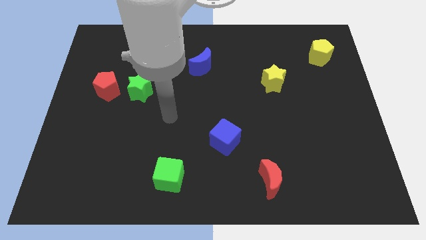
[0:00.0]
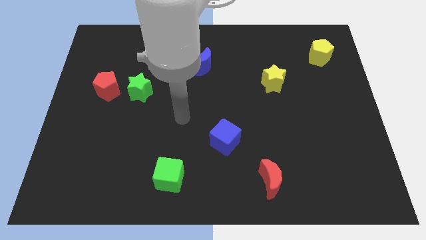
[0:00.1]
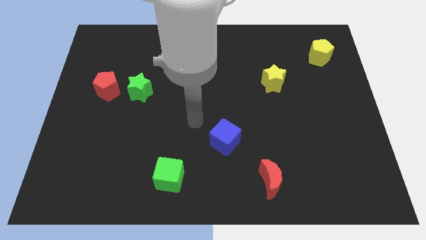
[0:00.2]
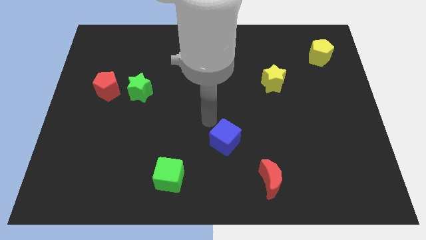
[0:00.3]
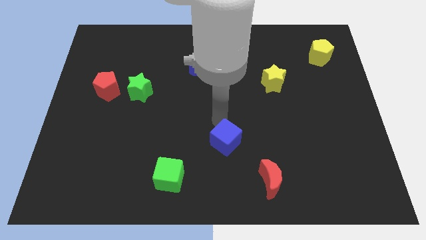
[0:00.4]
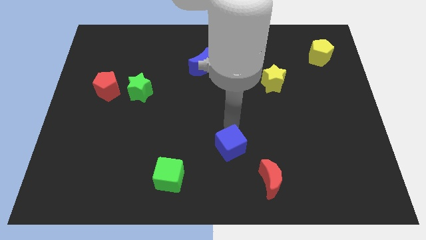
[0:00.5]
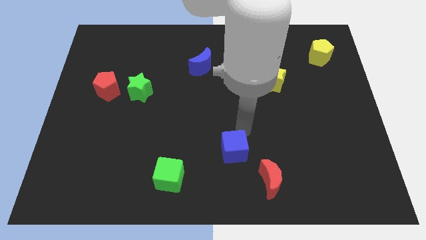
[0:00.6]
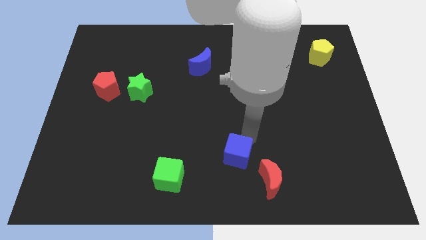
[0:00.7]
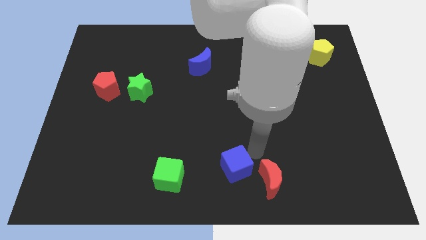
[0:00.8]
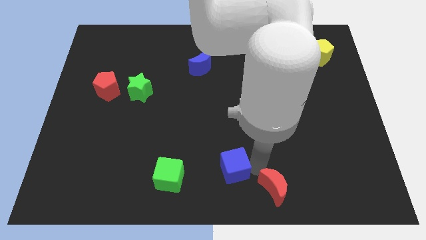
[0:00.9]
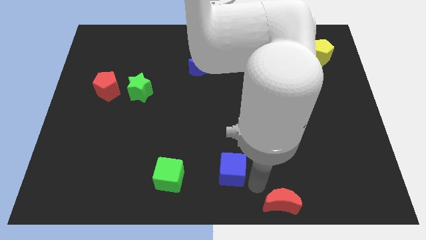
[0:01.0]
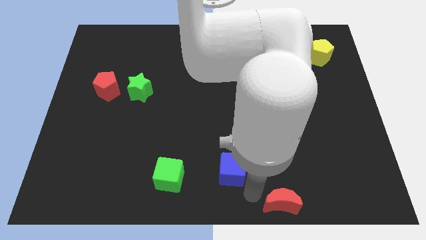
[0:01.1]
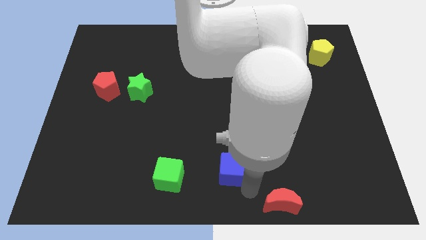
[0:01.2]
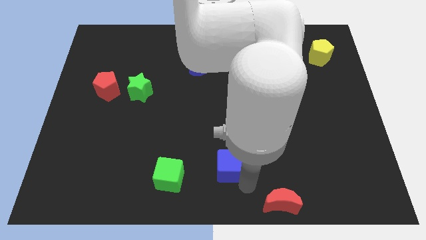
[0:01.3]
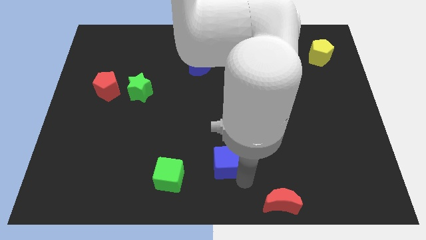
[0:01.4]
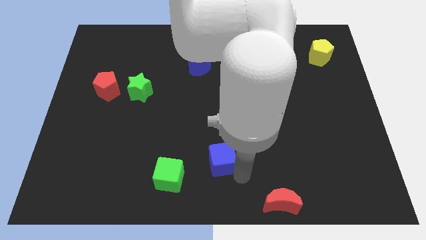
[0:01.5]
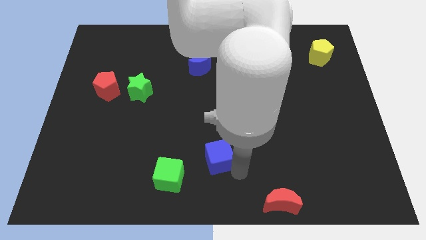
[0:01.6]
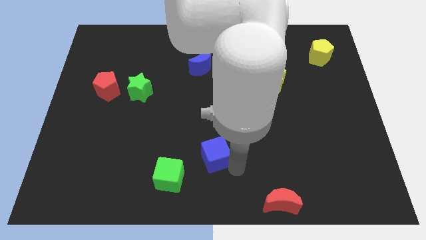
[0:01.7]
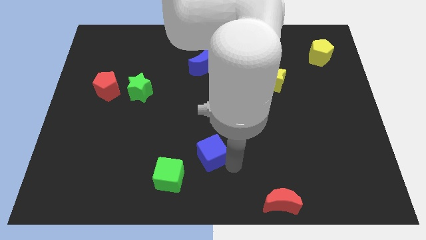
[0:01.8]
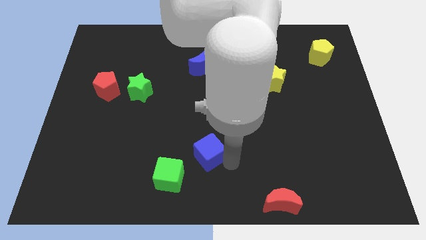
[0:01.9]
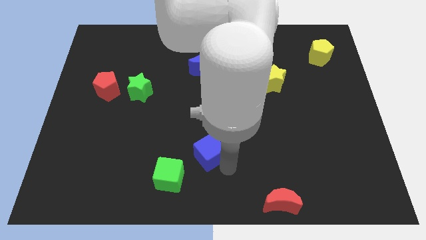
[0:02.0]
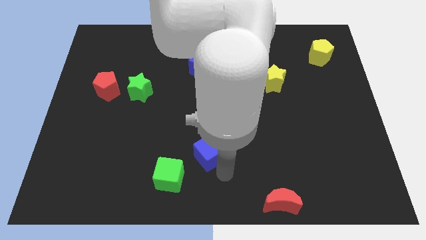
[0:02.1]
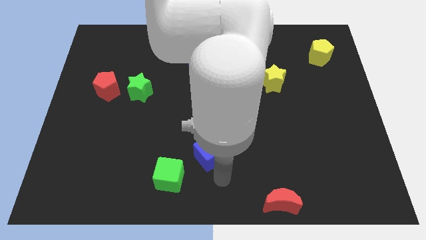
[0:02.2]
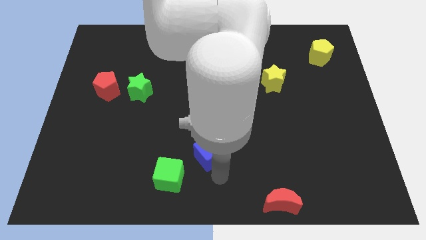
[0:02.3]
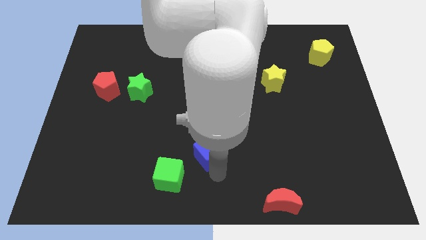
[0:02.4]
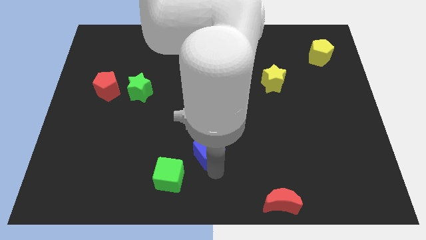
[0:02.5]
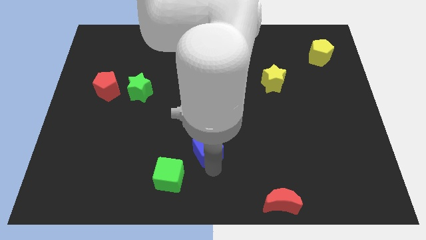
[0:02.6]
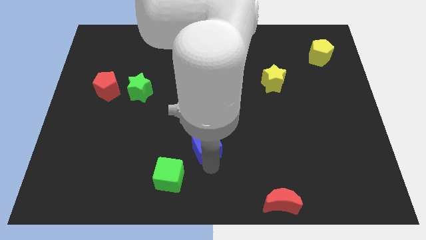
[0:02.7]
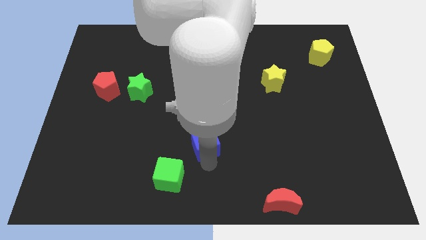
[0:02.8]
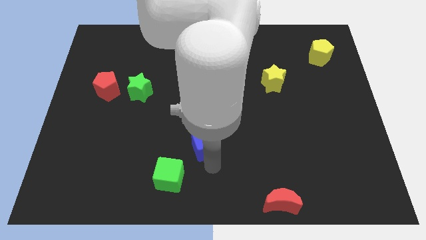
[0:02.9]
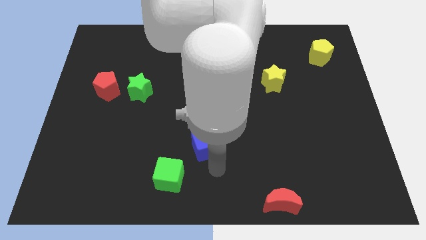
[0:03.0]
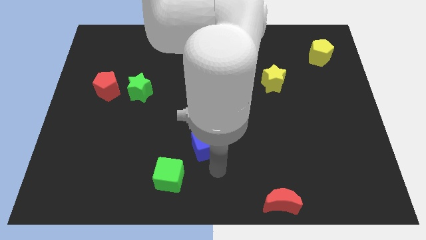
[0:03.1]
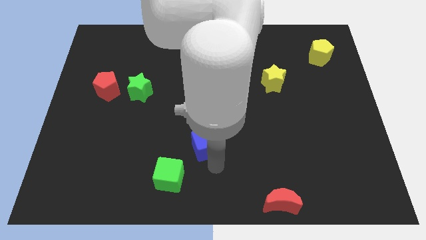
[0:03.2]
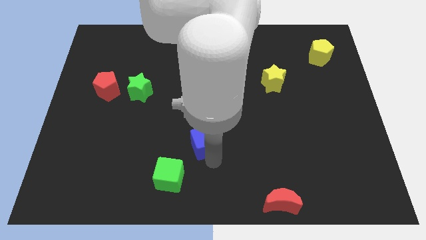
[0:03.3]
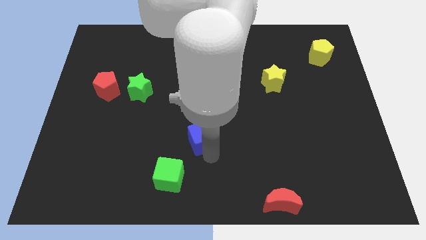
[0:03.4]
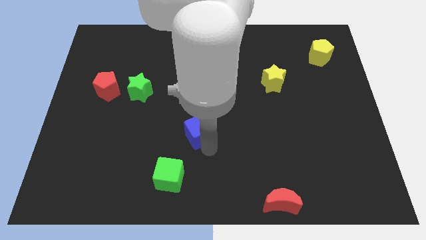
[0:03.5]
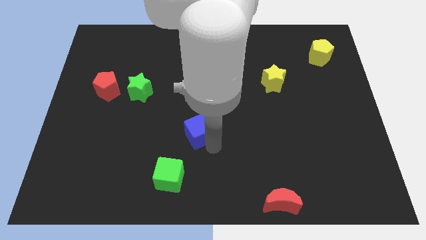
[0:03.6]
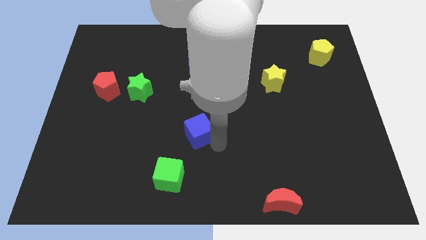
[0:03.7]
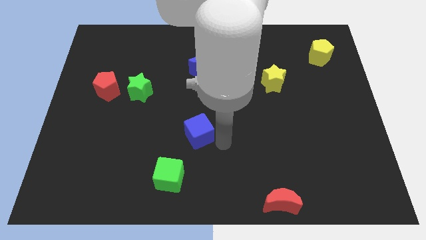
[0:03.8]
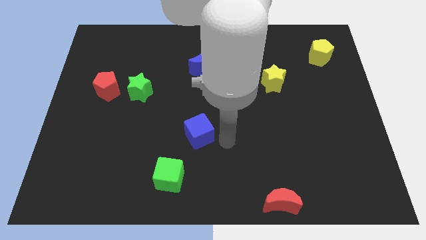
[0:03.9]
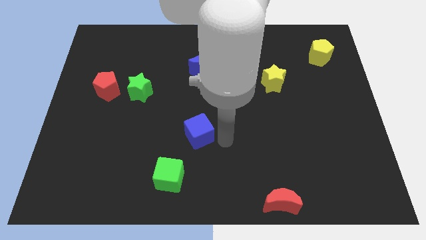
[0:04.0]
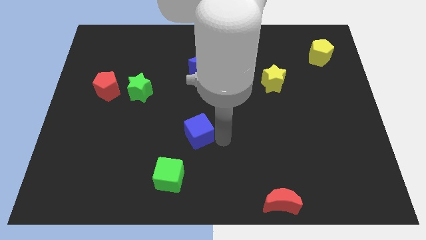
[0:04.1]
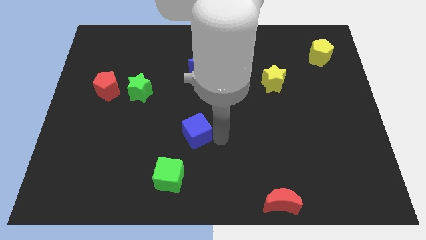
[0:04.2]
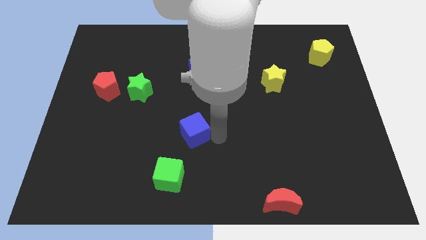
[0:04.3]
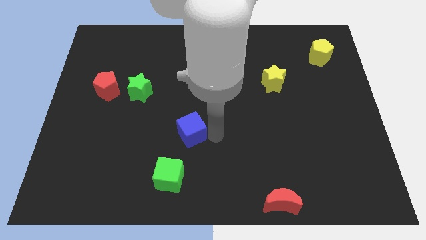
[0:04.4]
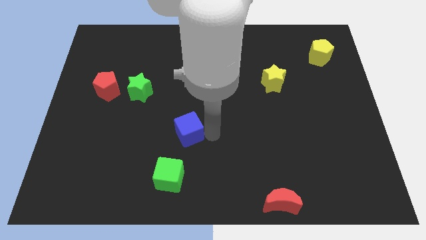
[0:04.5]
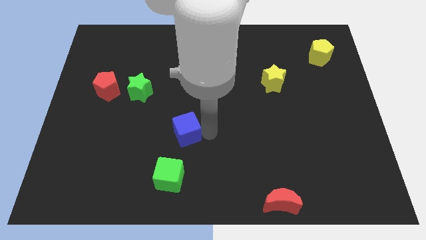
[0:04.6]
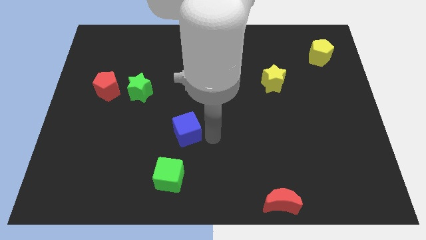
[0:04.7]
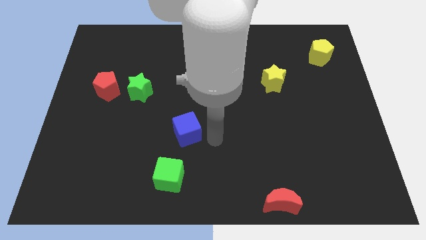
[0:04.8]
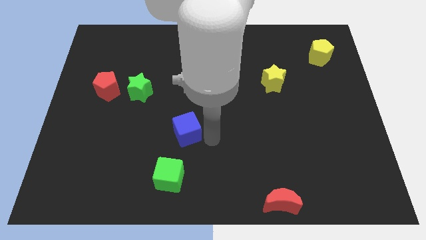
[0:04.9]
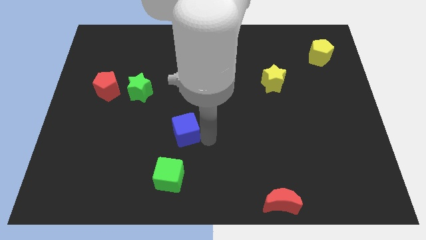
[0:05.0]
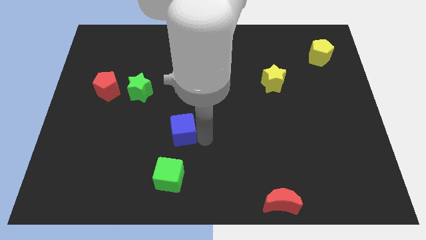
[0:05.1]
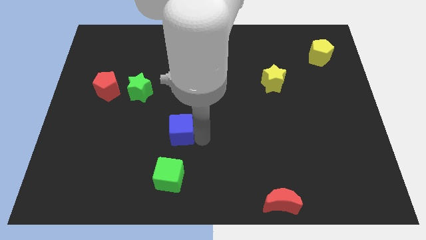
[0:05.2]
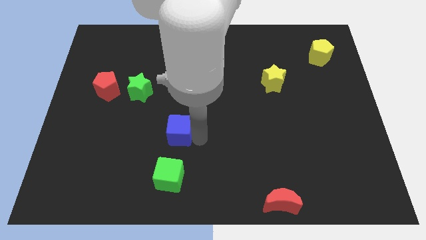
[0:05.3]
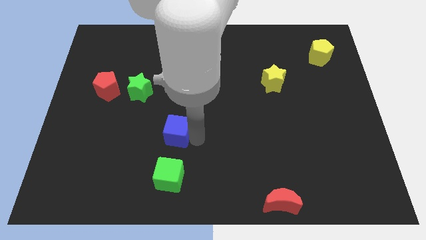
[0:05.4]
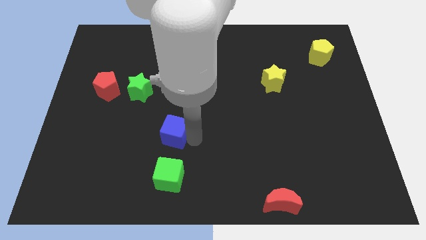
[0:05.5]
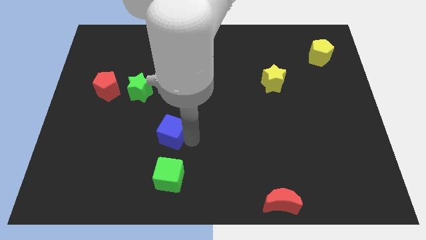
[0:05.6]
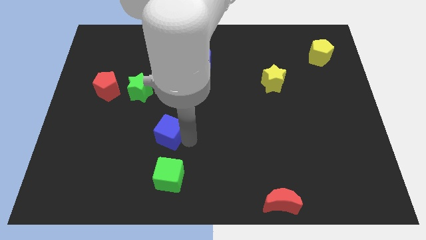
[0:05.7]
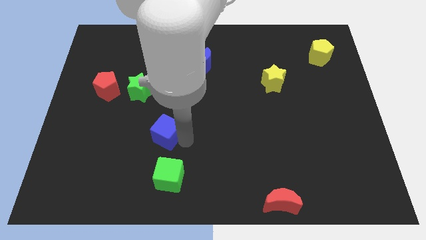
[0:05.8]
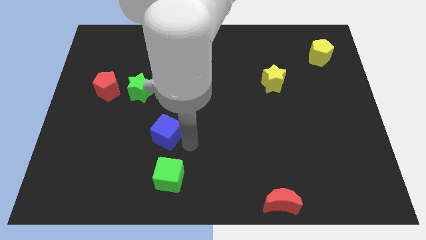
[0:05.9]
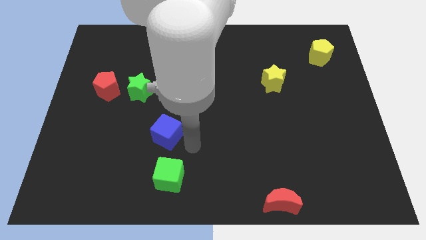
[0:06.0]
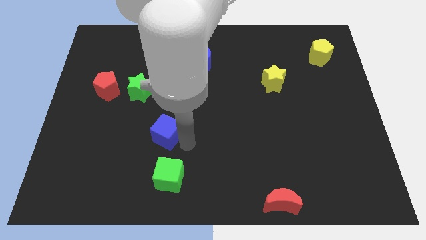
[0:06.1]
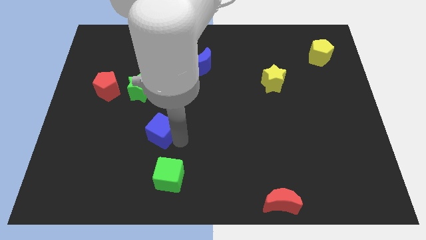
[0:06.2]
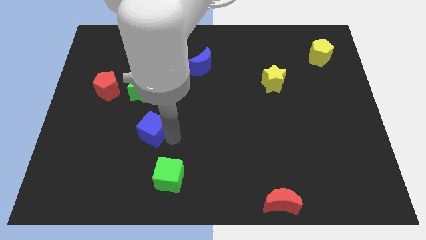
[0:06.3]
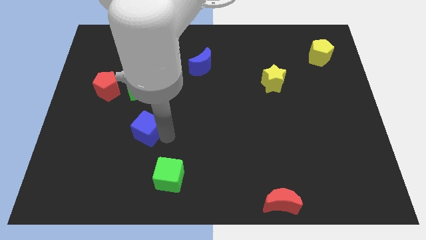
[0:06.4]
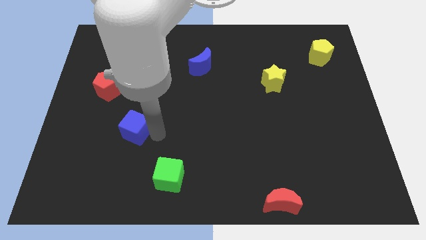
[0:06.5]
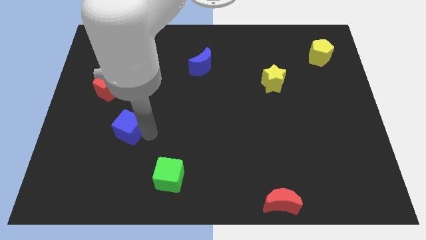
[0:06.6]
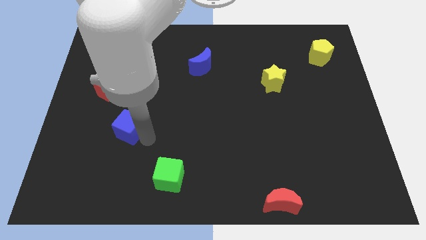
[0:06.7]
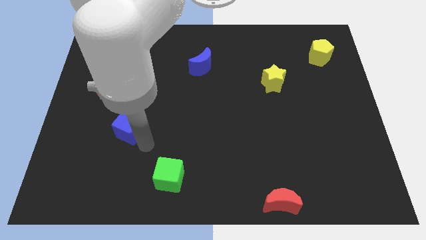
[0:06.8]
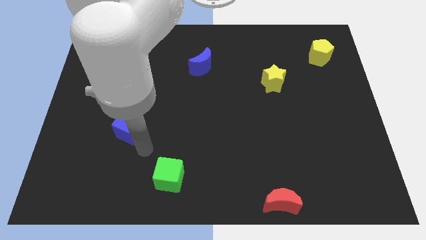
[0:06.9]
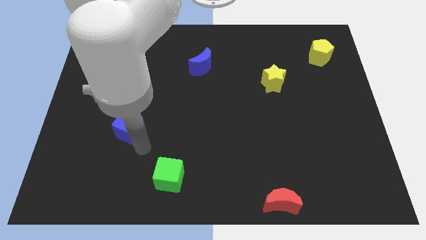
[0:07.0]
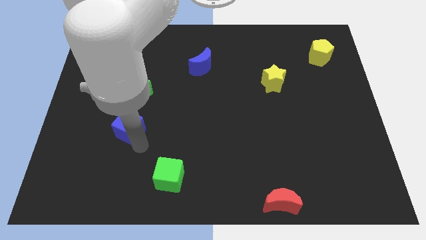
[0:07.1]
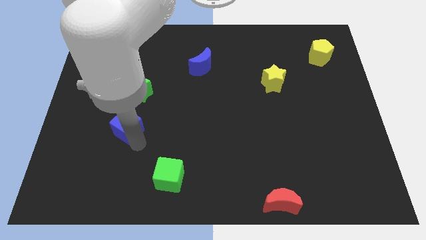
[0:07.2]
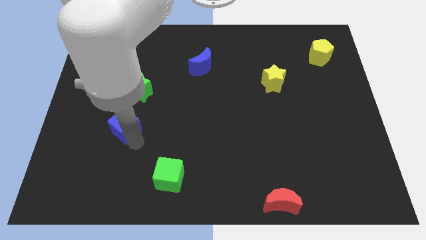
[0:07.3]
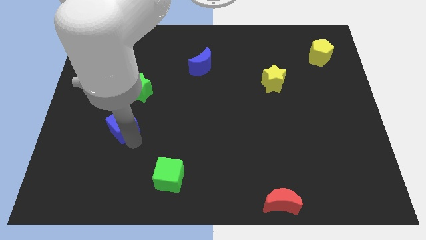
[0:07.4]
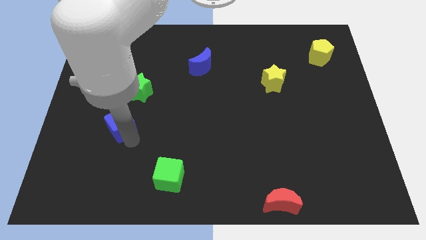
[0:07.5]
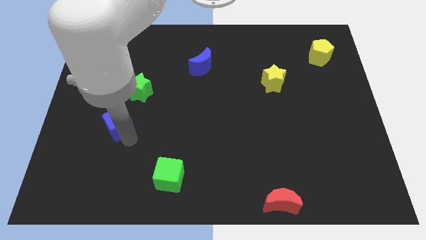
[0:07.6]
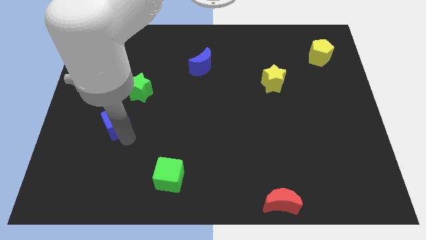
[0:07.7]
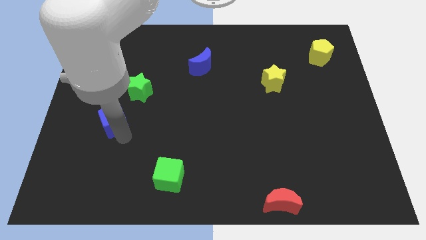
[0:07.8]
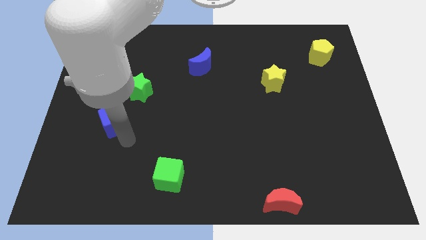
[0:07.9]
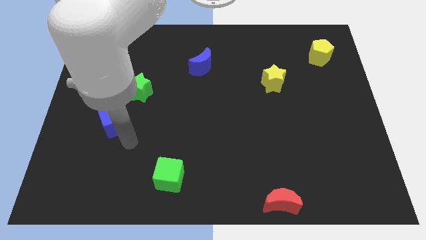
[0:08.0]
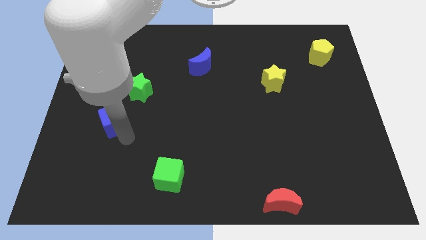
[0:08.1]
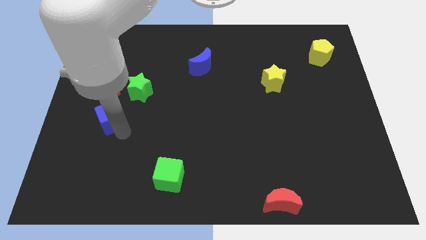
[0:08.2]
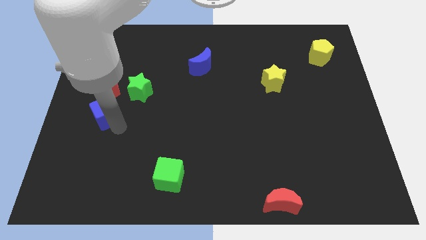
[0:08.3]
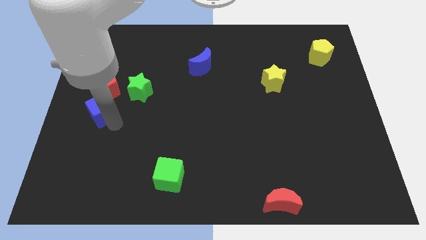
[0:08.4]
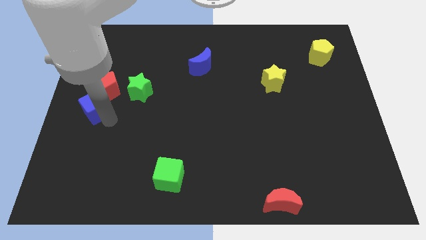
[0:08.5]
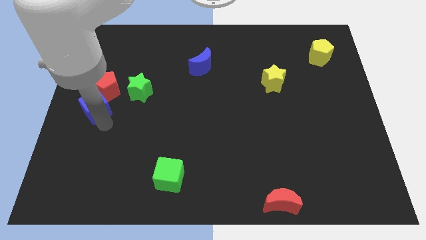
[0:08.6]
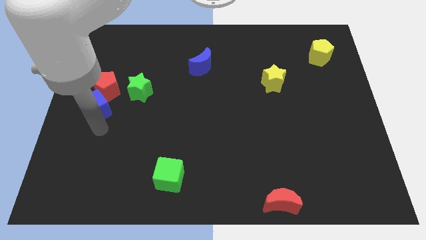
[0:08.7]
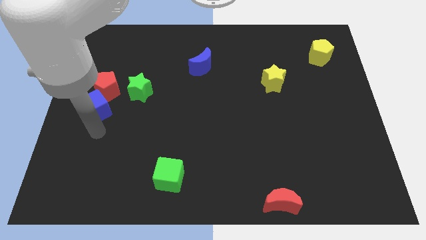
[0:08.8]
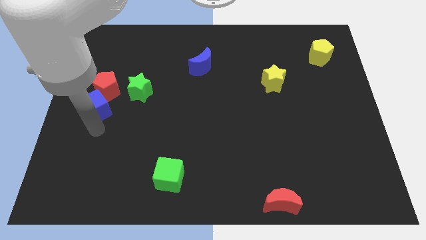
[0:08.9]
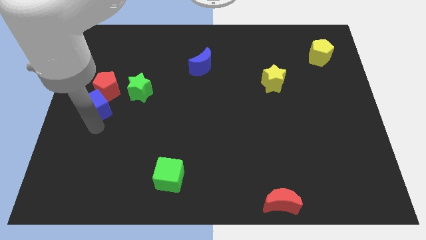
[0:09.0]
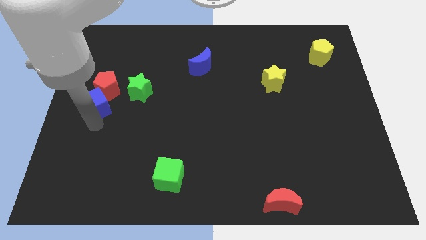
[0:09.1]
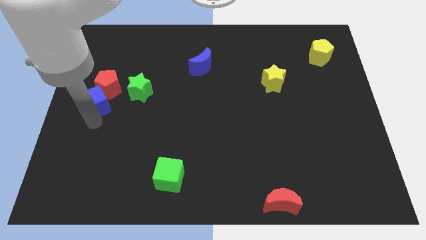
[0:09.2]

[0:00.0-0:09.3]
slide the blue cube just left of the green star
